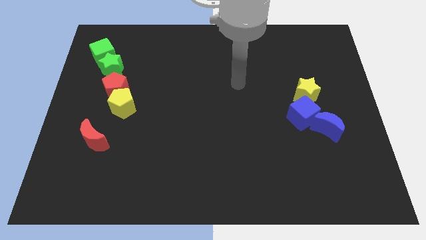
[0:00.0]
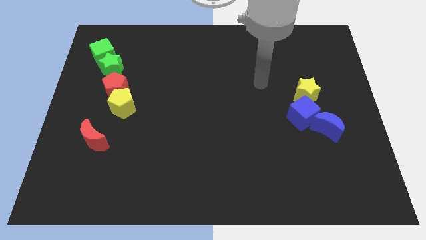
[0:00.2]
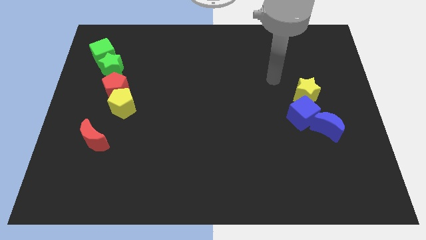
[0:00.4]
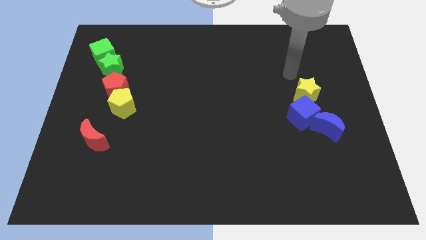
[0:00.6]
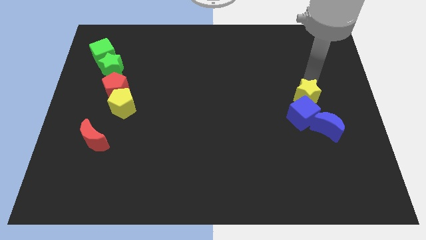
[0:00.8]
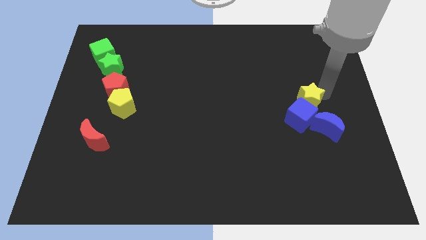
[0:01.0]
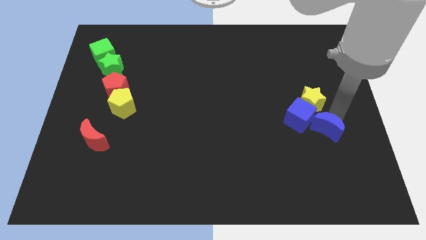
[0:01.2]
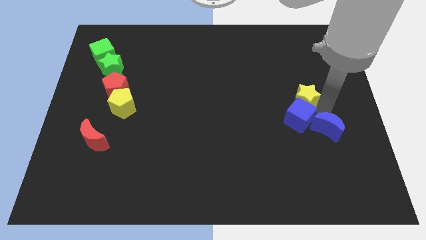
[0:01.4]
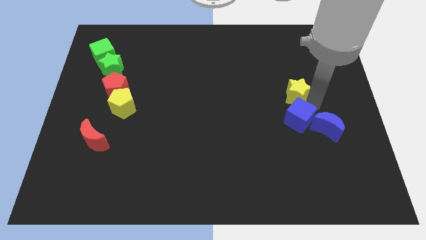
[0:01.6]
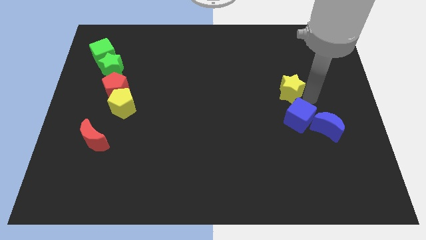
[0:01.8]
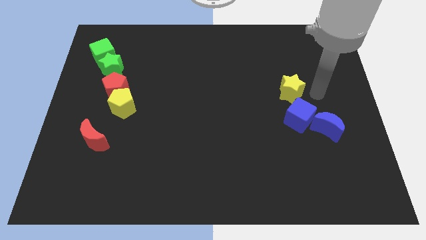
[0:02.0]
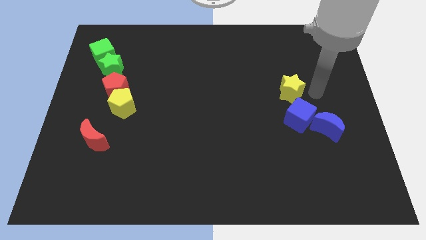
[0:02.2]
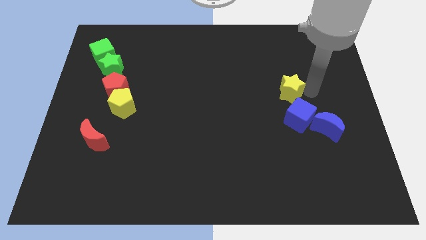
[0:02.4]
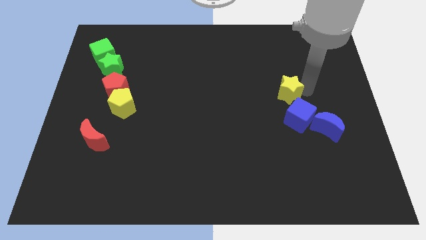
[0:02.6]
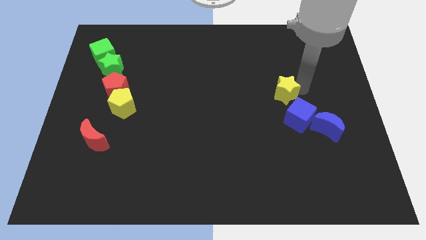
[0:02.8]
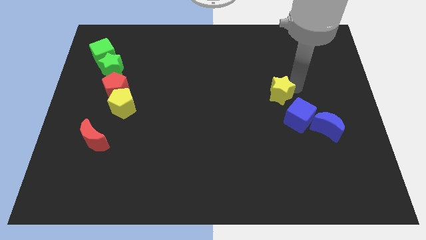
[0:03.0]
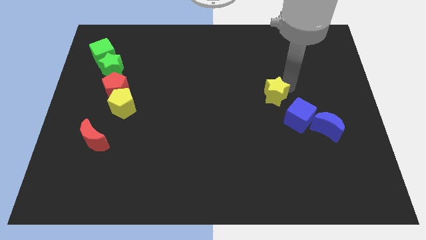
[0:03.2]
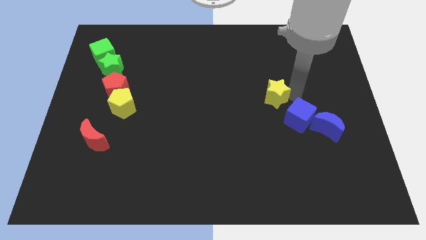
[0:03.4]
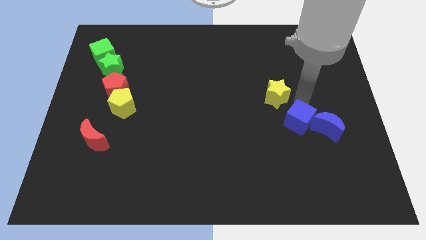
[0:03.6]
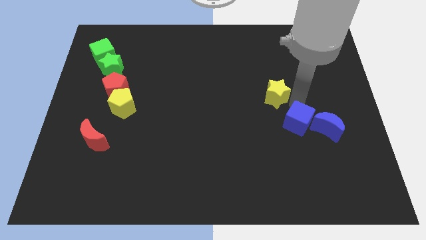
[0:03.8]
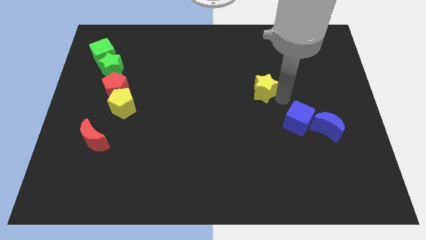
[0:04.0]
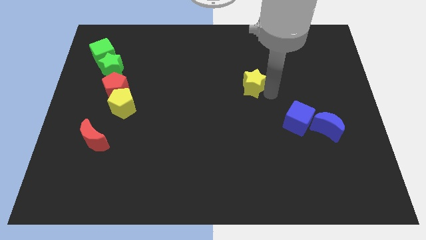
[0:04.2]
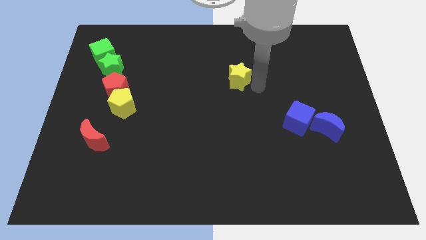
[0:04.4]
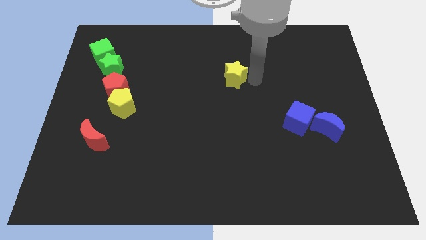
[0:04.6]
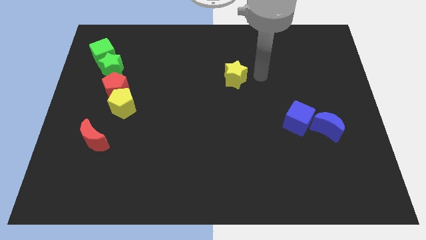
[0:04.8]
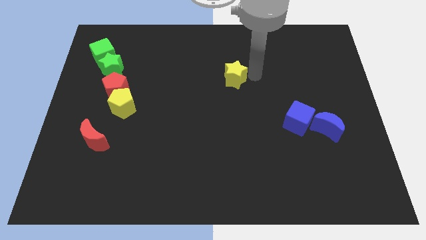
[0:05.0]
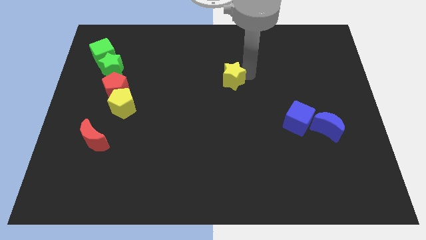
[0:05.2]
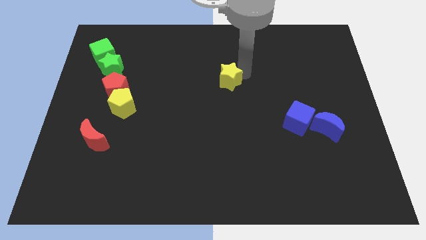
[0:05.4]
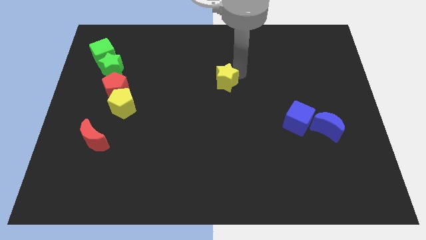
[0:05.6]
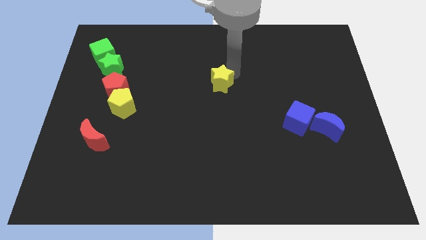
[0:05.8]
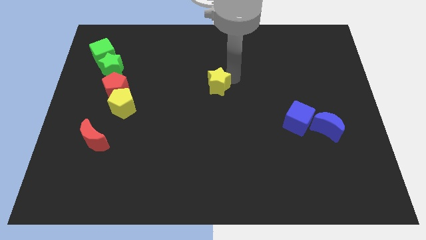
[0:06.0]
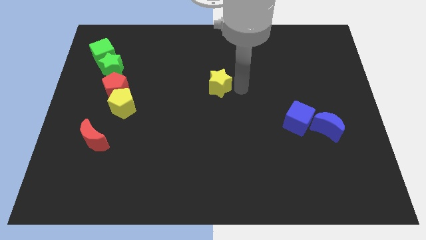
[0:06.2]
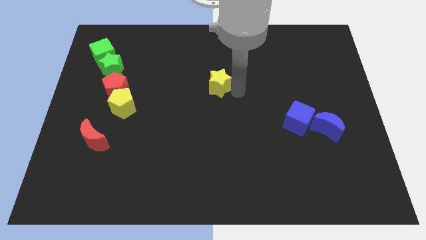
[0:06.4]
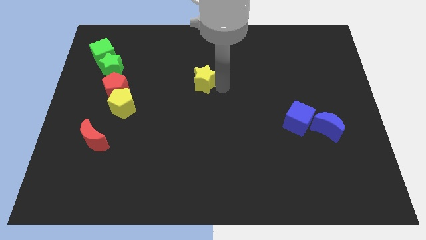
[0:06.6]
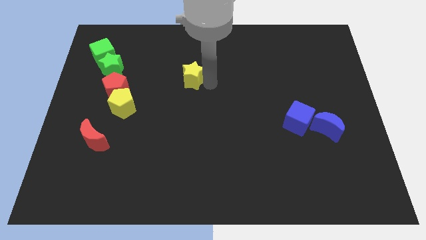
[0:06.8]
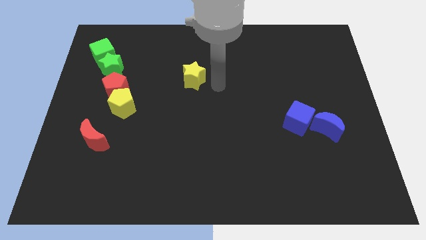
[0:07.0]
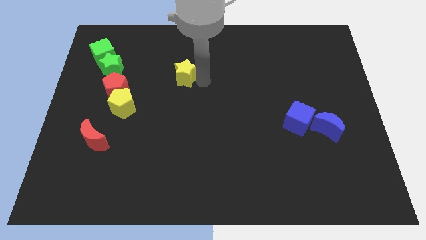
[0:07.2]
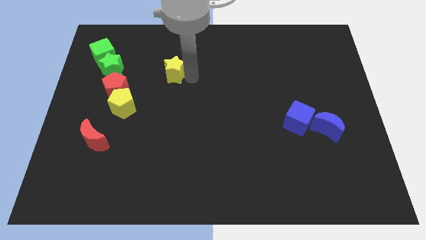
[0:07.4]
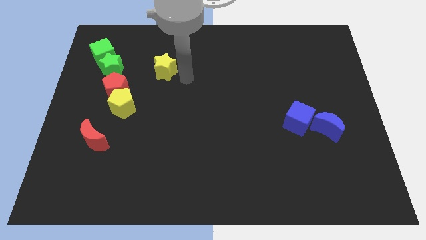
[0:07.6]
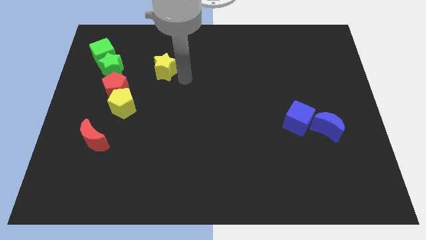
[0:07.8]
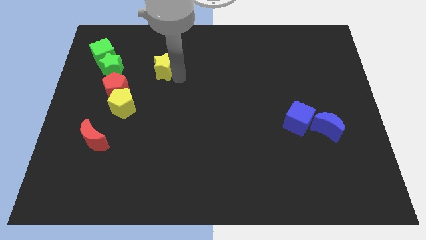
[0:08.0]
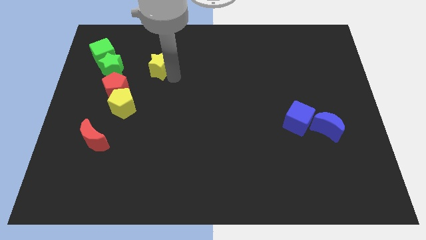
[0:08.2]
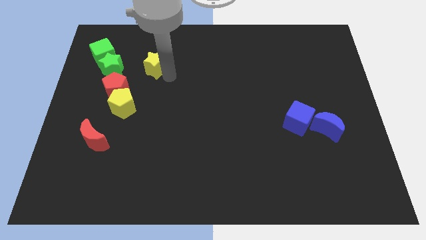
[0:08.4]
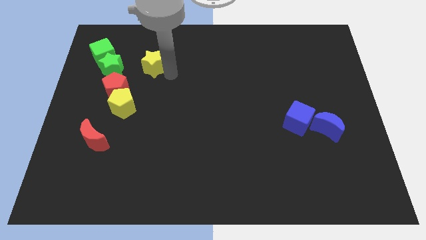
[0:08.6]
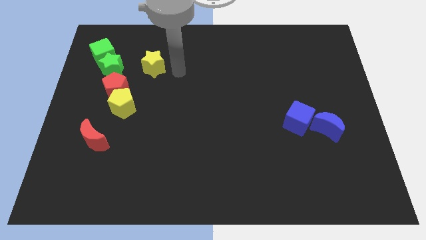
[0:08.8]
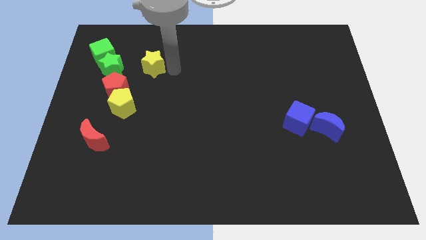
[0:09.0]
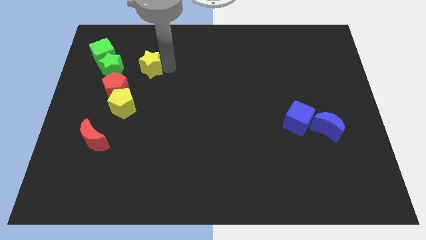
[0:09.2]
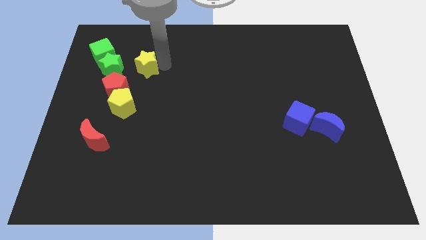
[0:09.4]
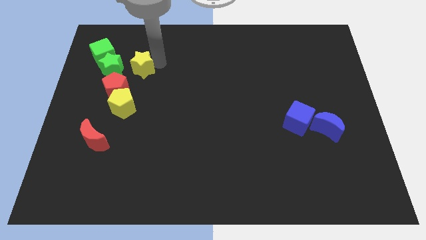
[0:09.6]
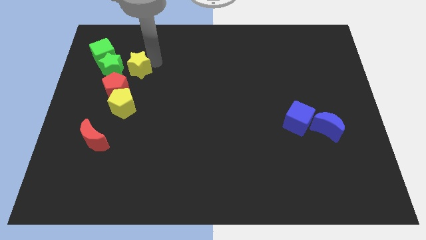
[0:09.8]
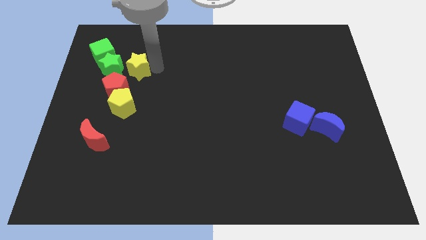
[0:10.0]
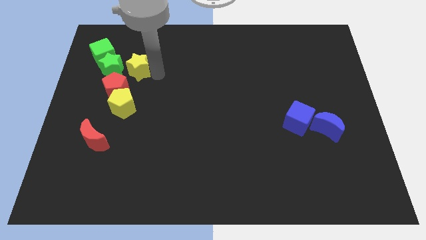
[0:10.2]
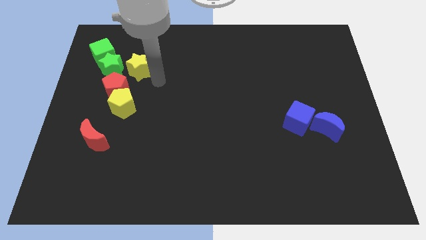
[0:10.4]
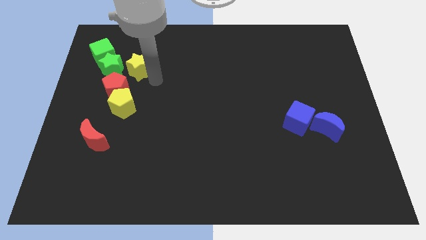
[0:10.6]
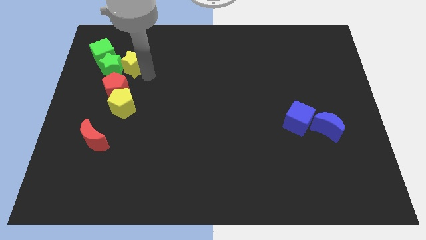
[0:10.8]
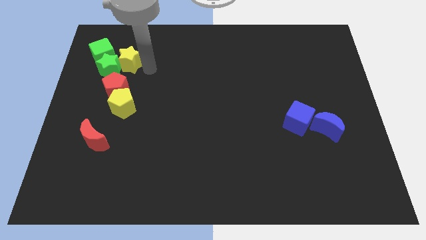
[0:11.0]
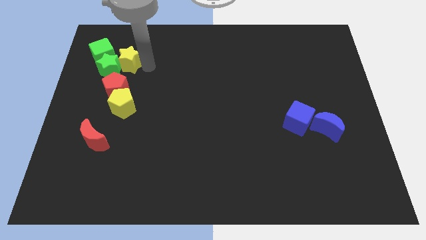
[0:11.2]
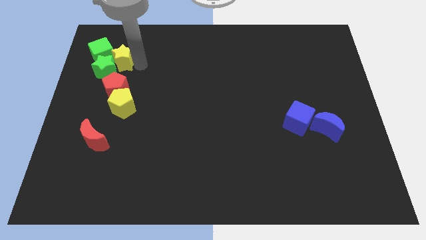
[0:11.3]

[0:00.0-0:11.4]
put the yellow star towards the green cube
